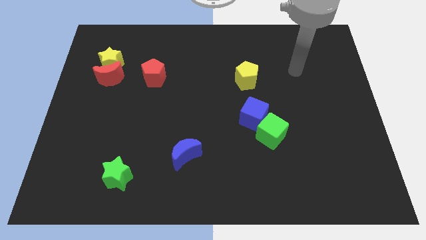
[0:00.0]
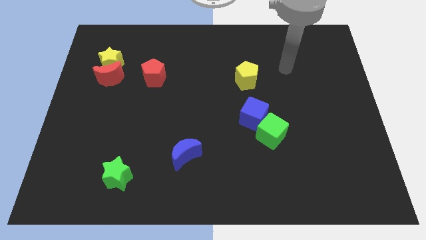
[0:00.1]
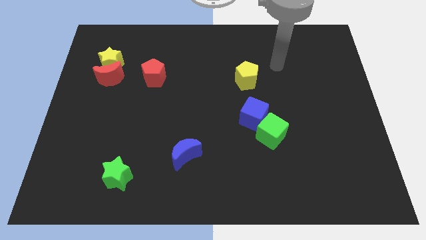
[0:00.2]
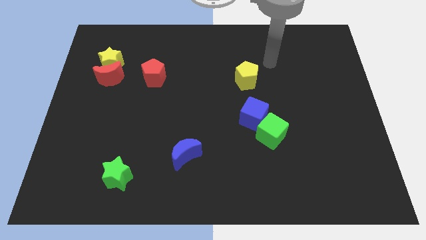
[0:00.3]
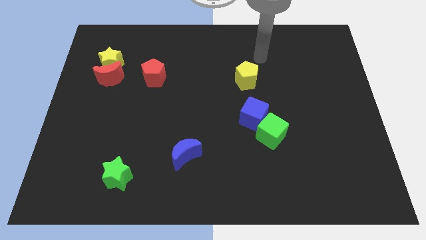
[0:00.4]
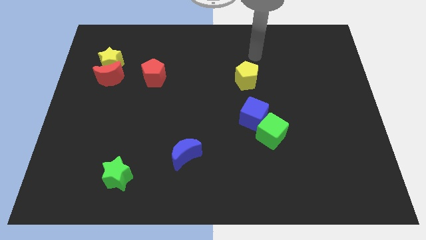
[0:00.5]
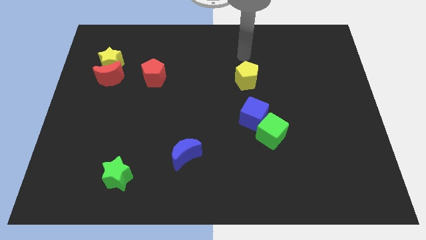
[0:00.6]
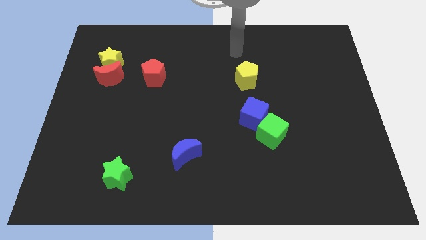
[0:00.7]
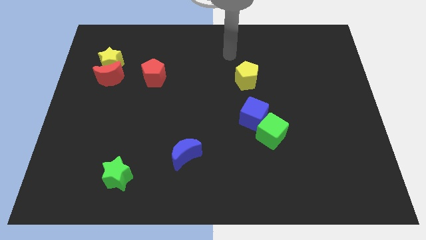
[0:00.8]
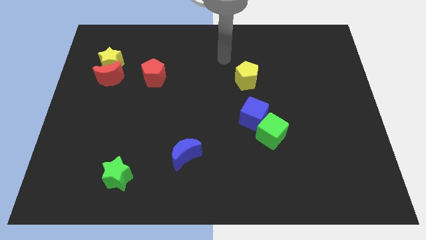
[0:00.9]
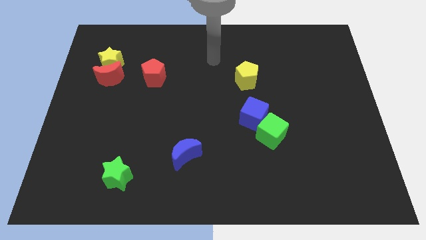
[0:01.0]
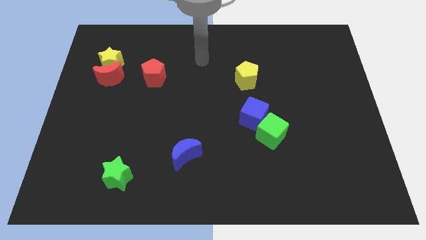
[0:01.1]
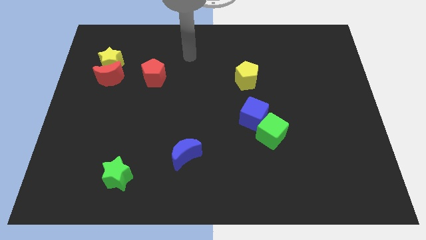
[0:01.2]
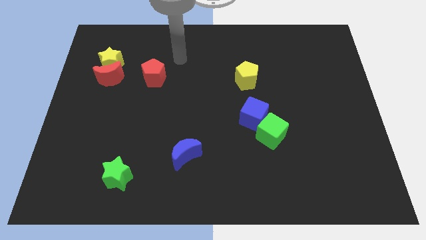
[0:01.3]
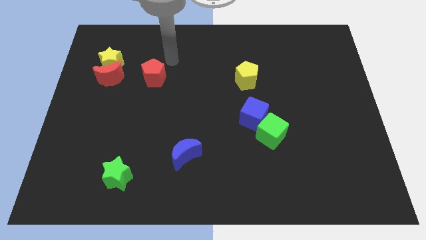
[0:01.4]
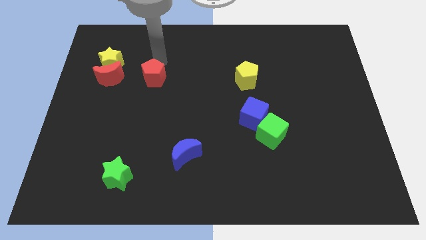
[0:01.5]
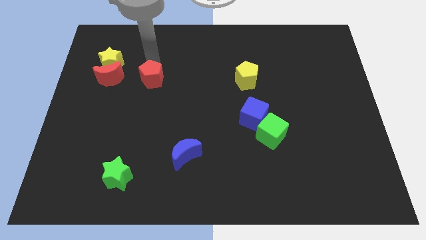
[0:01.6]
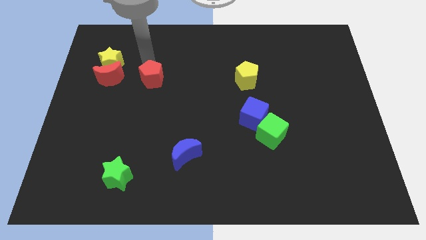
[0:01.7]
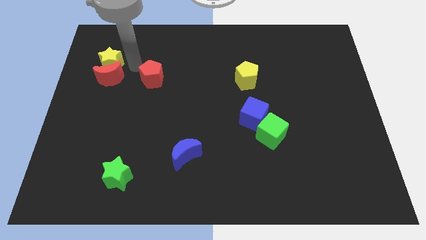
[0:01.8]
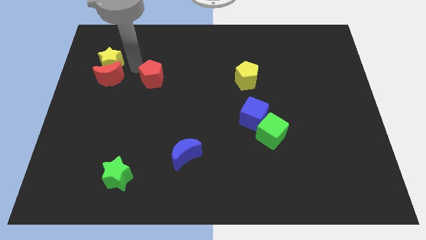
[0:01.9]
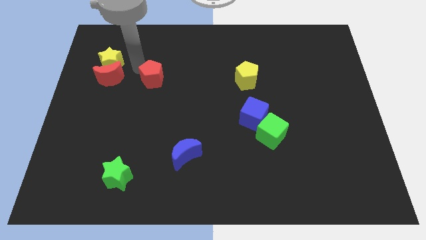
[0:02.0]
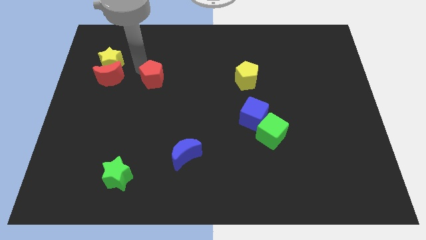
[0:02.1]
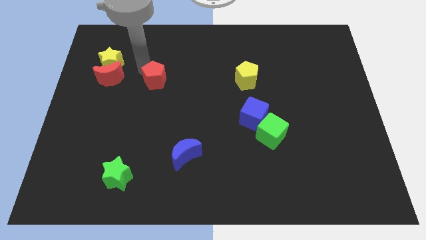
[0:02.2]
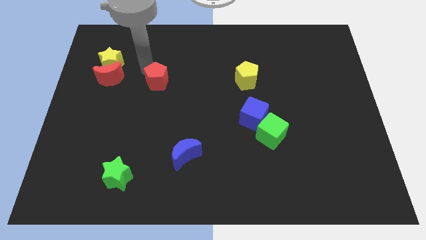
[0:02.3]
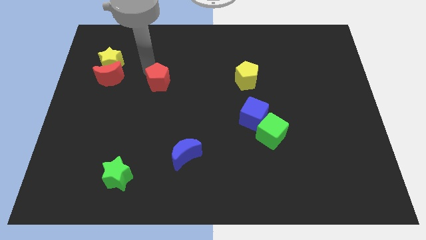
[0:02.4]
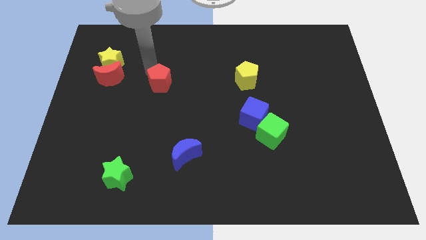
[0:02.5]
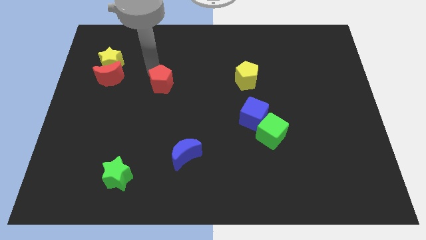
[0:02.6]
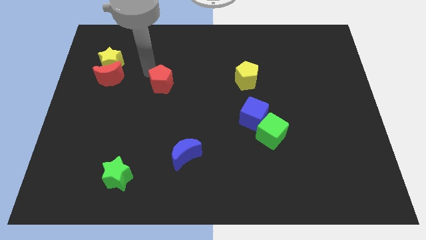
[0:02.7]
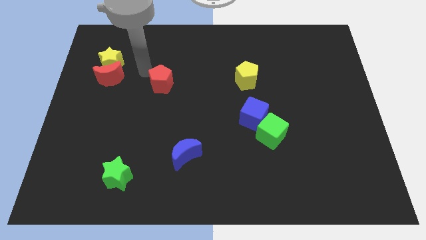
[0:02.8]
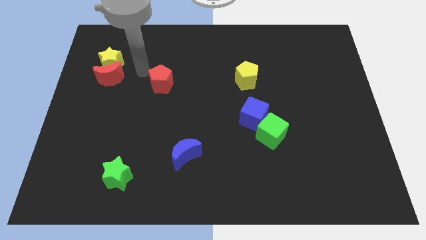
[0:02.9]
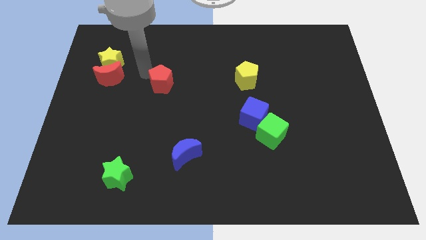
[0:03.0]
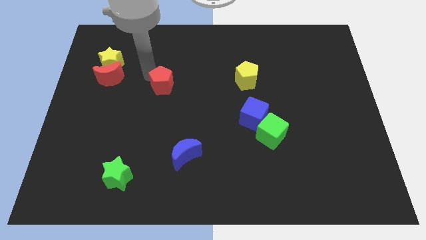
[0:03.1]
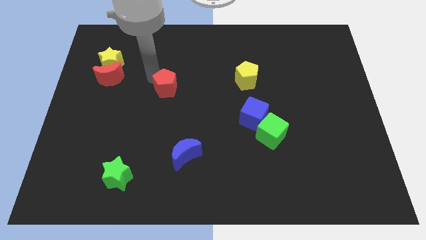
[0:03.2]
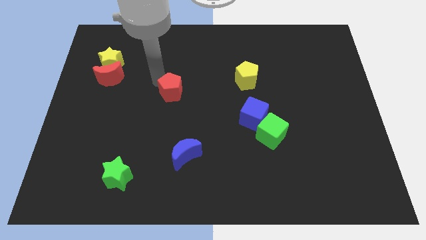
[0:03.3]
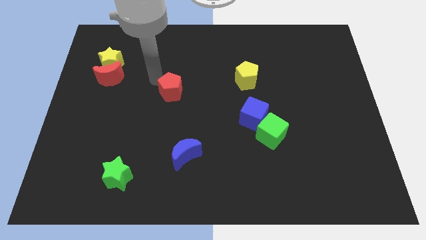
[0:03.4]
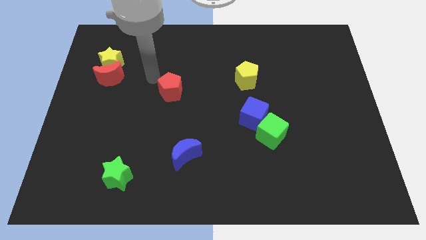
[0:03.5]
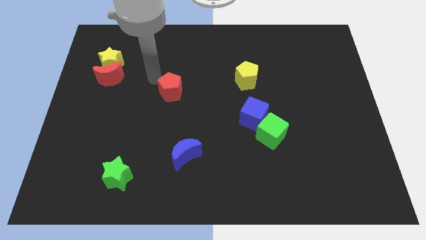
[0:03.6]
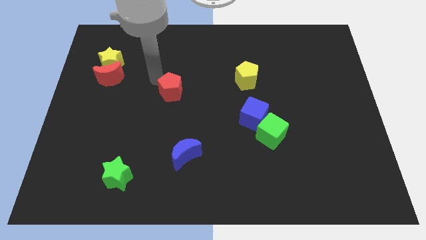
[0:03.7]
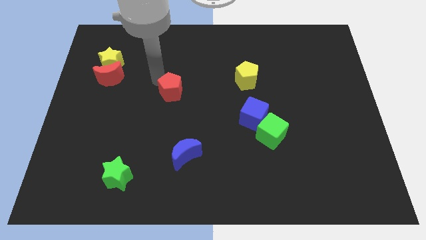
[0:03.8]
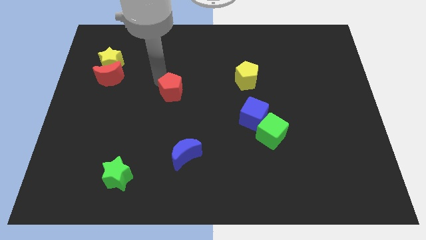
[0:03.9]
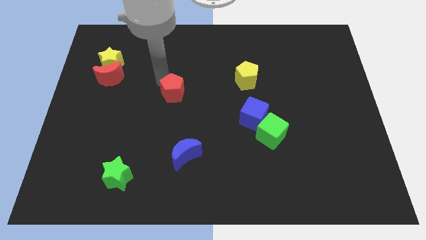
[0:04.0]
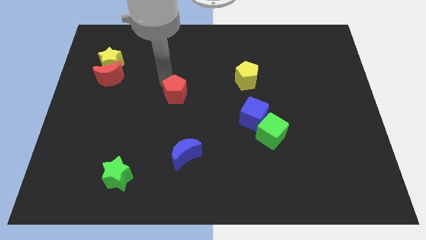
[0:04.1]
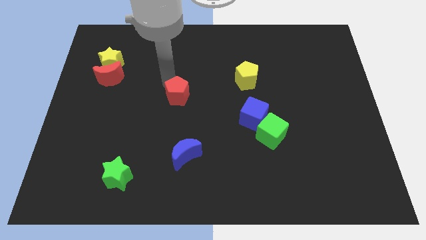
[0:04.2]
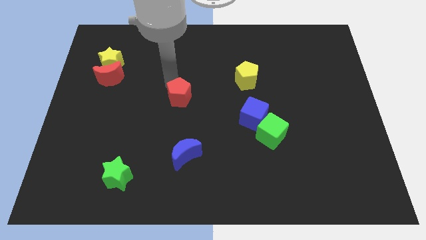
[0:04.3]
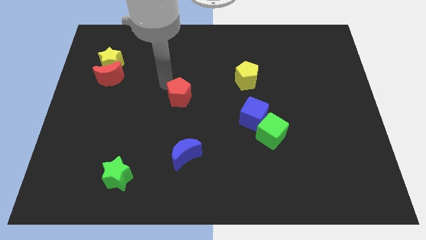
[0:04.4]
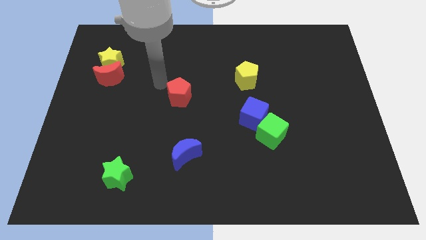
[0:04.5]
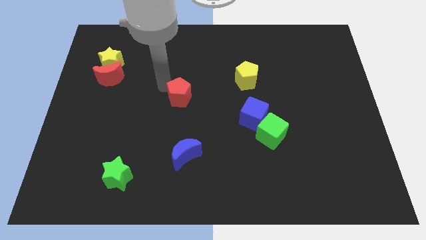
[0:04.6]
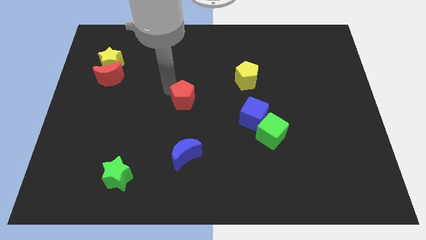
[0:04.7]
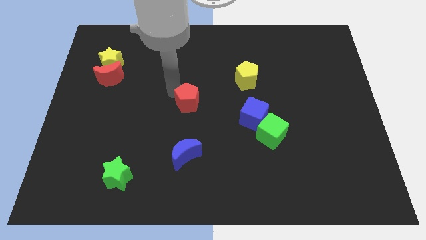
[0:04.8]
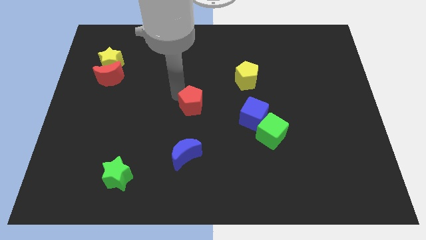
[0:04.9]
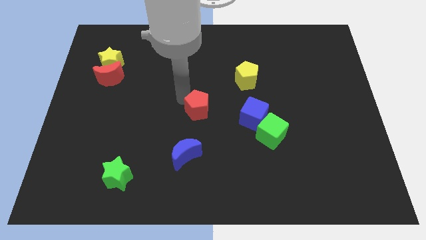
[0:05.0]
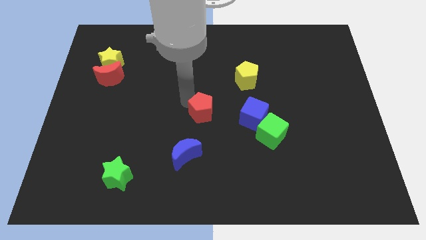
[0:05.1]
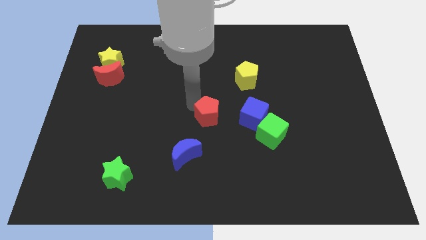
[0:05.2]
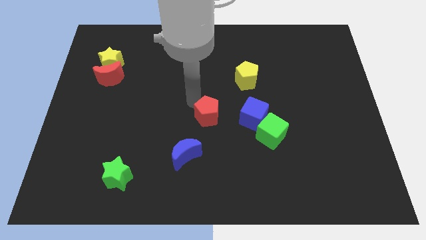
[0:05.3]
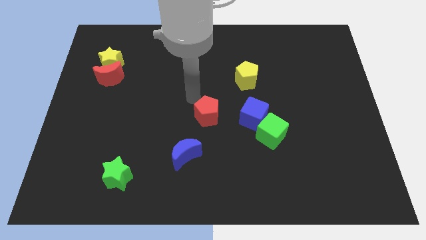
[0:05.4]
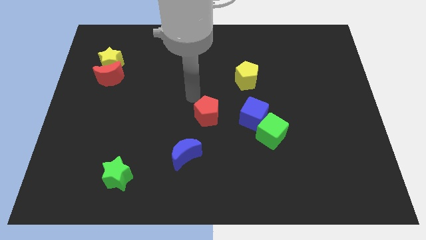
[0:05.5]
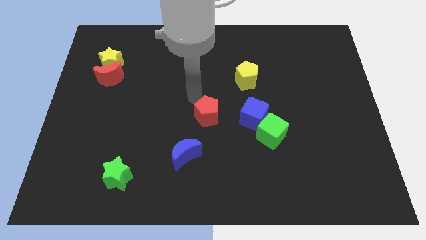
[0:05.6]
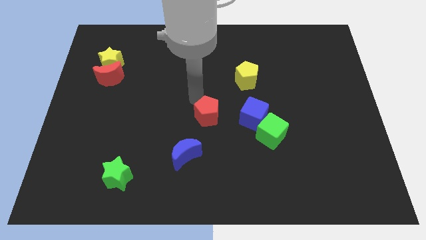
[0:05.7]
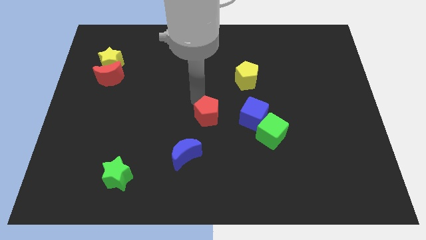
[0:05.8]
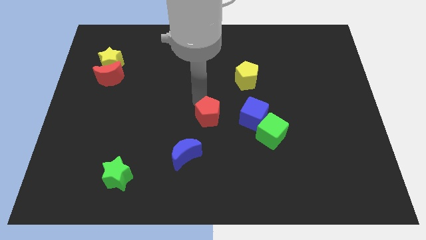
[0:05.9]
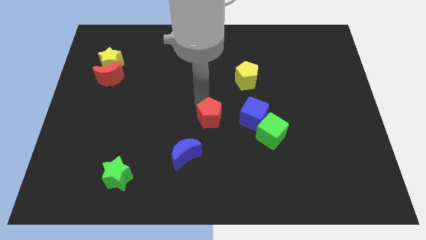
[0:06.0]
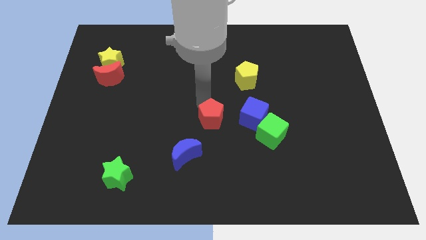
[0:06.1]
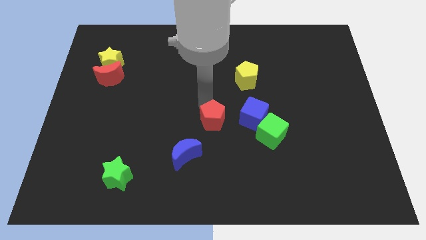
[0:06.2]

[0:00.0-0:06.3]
push the red pentagon down and then to the right

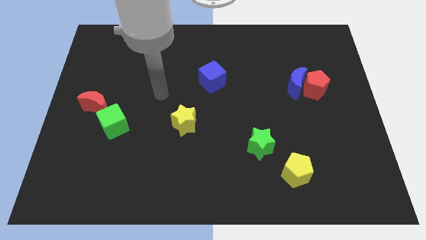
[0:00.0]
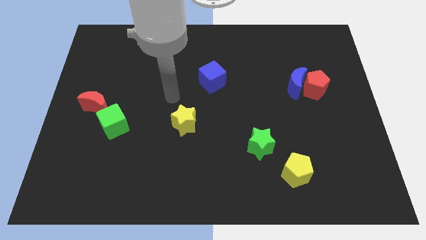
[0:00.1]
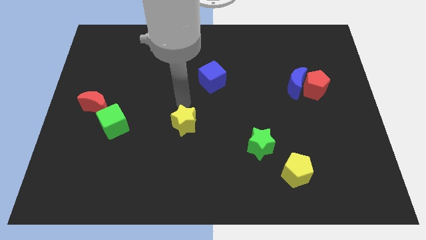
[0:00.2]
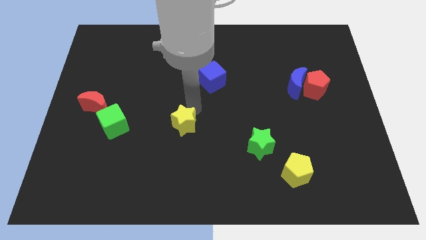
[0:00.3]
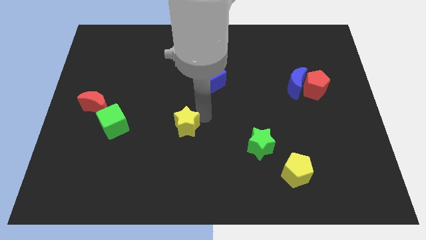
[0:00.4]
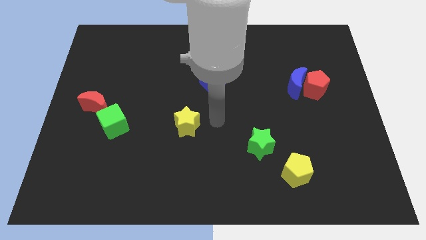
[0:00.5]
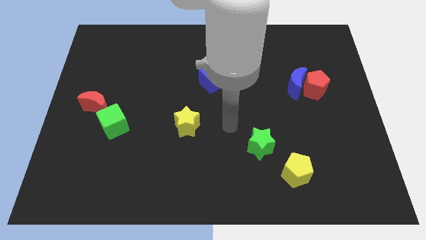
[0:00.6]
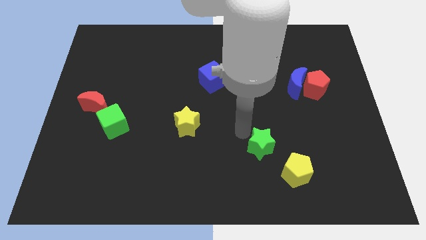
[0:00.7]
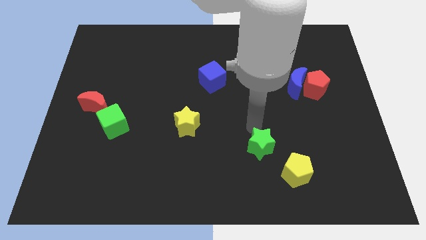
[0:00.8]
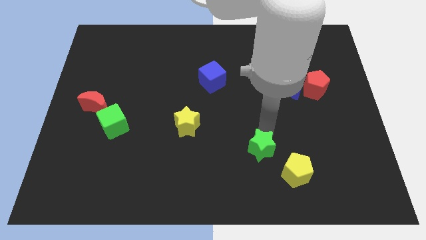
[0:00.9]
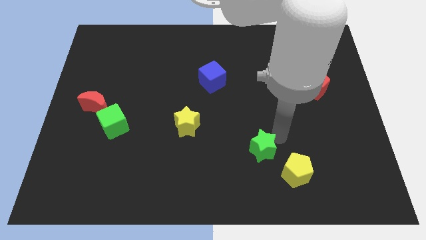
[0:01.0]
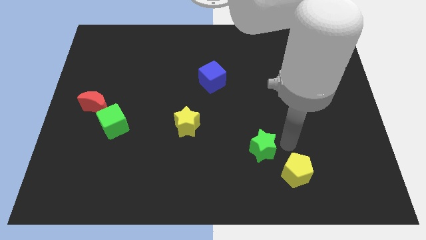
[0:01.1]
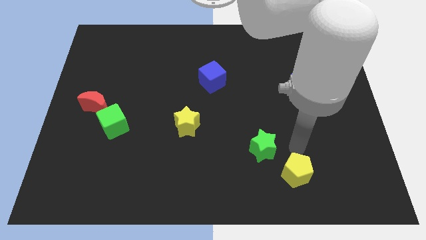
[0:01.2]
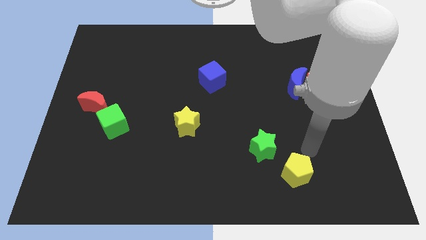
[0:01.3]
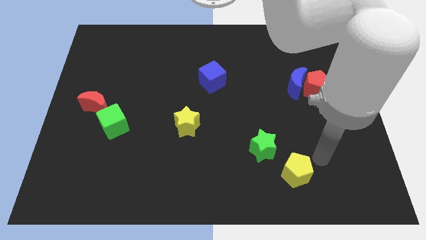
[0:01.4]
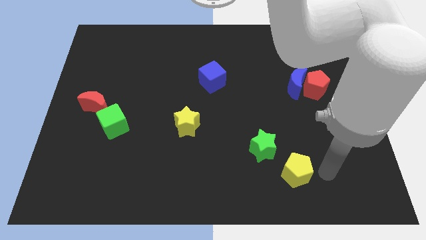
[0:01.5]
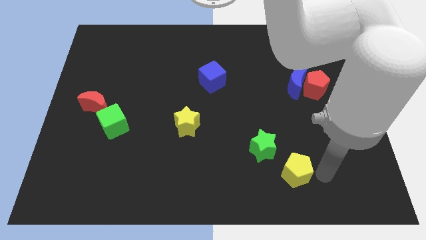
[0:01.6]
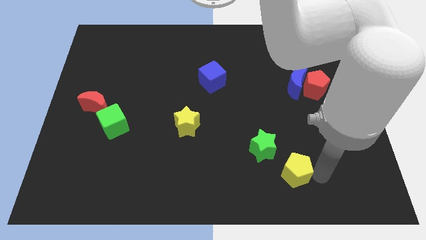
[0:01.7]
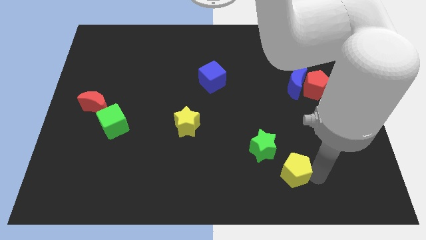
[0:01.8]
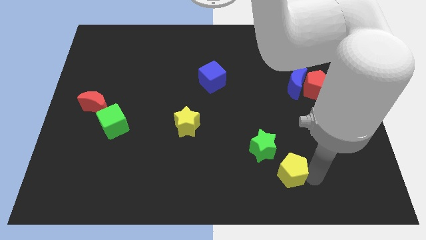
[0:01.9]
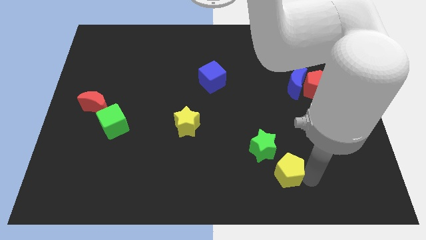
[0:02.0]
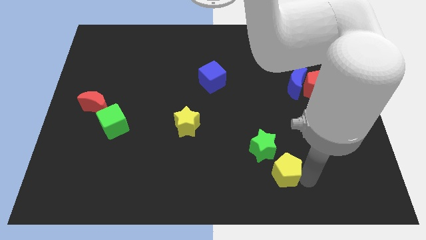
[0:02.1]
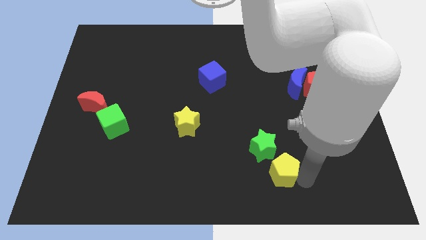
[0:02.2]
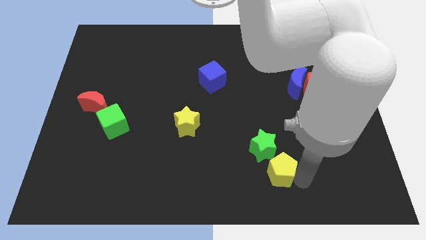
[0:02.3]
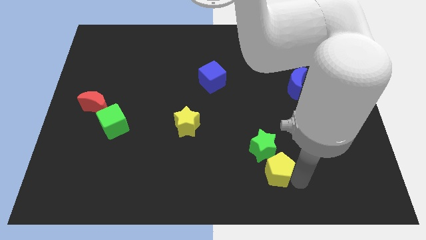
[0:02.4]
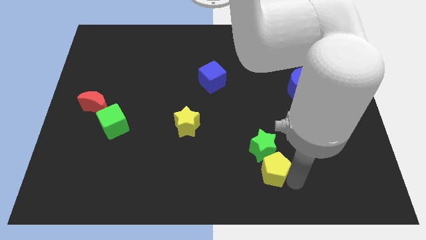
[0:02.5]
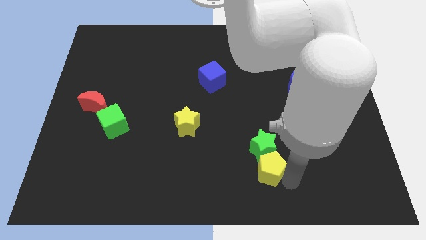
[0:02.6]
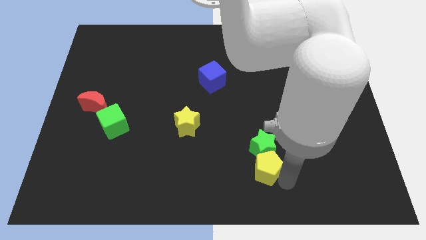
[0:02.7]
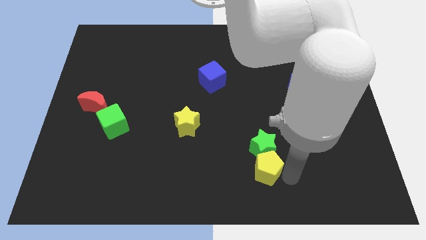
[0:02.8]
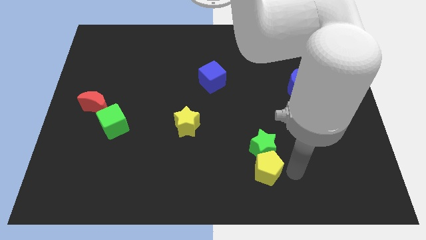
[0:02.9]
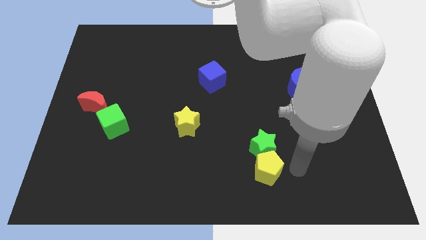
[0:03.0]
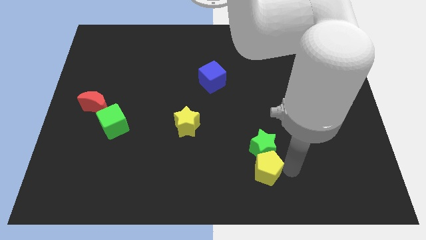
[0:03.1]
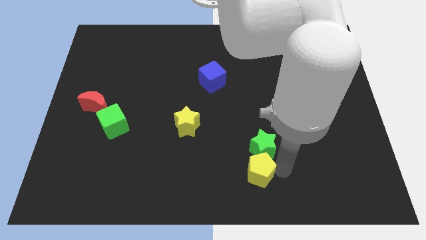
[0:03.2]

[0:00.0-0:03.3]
move the yellow pentagon to the left a bit
